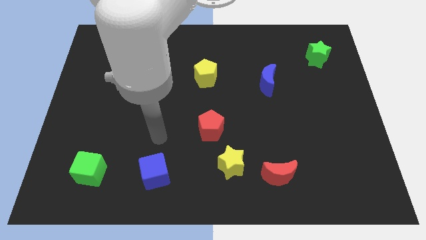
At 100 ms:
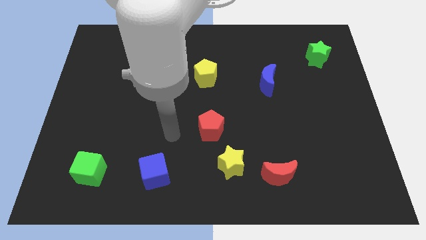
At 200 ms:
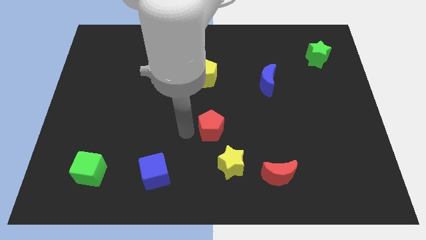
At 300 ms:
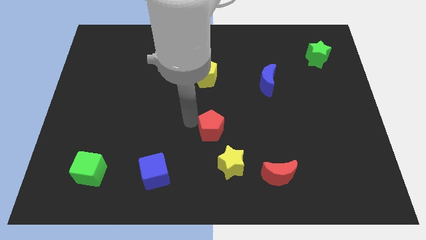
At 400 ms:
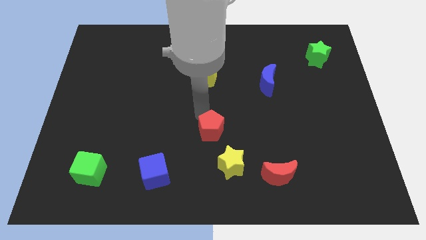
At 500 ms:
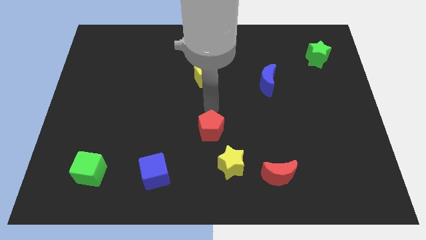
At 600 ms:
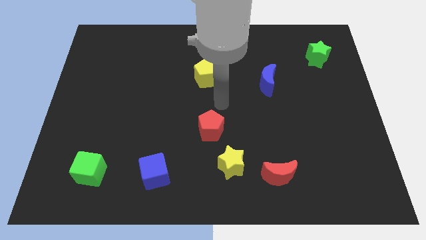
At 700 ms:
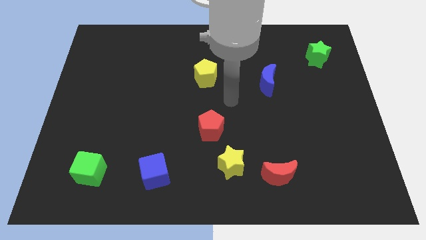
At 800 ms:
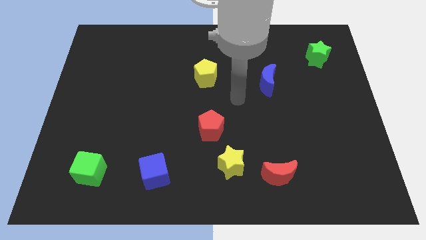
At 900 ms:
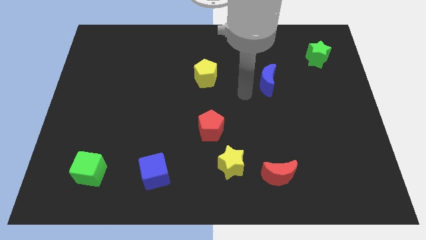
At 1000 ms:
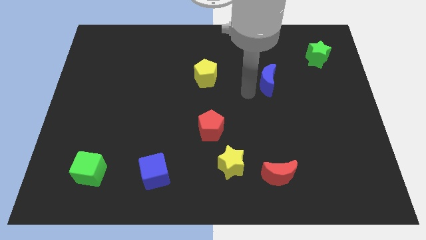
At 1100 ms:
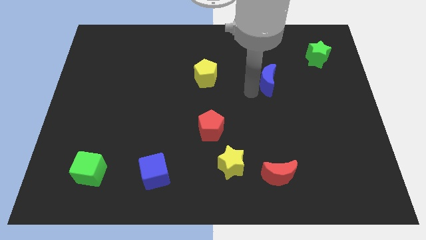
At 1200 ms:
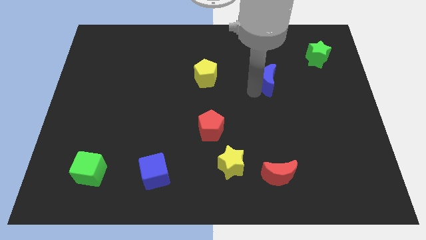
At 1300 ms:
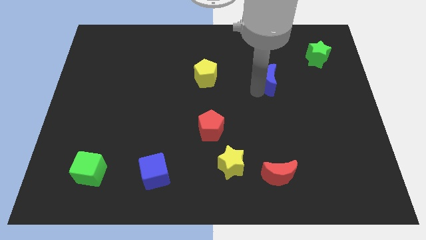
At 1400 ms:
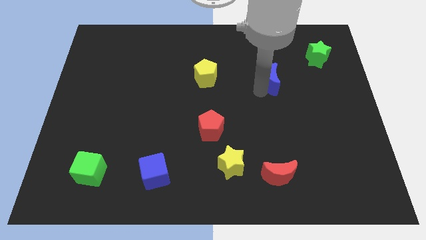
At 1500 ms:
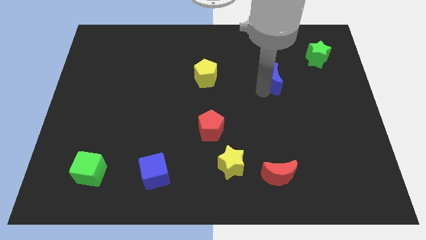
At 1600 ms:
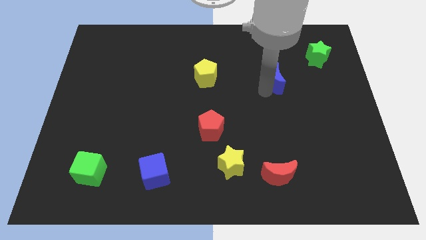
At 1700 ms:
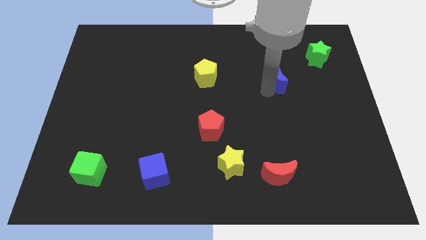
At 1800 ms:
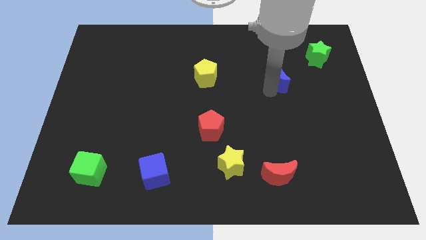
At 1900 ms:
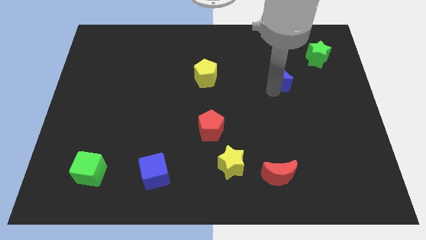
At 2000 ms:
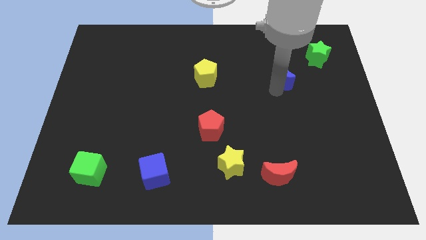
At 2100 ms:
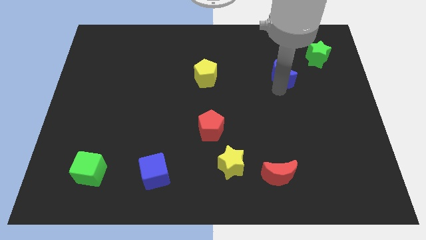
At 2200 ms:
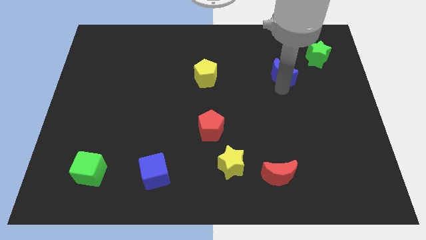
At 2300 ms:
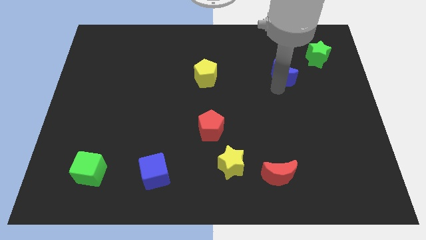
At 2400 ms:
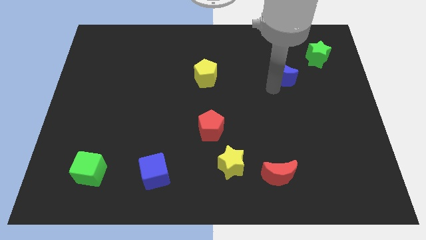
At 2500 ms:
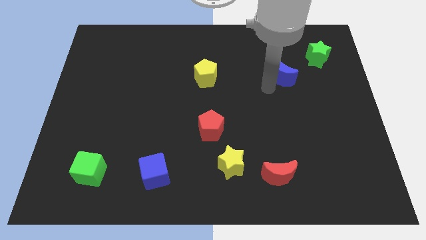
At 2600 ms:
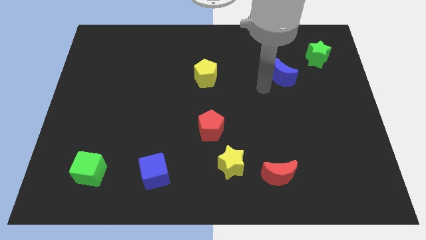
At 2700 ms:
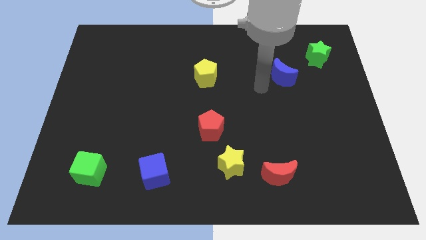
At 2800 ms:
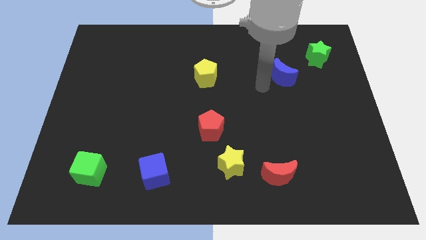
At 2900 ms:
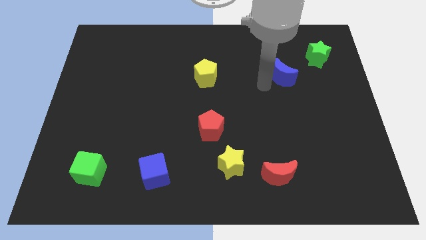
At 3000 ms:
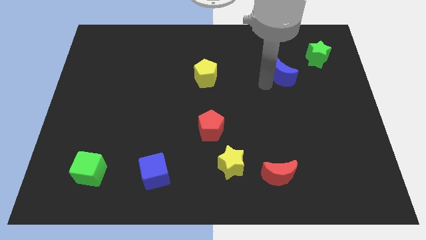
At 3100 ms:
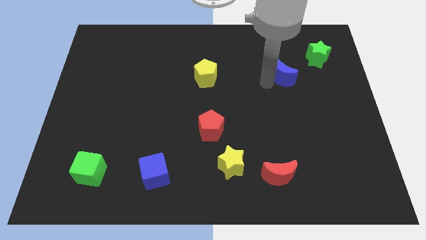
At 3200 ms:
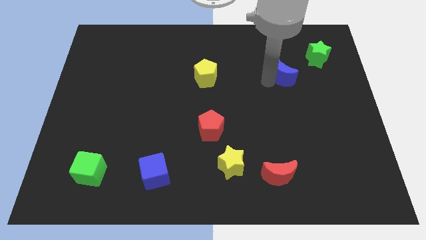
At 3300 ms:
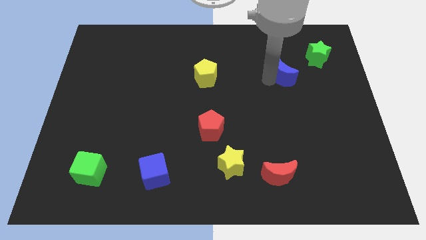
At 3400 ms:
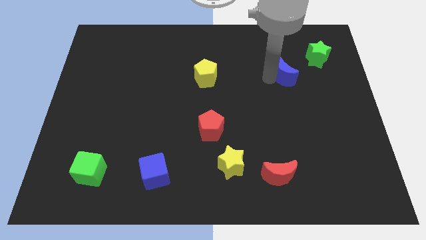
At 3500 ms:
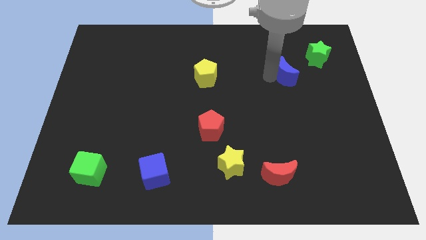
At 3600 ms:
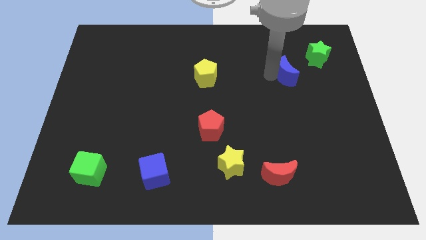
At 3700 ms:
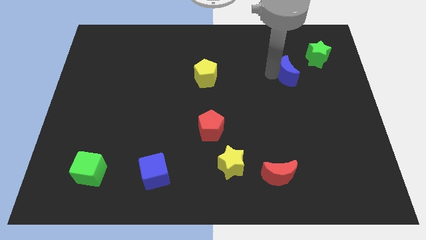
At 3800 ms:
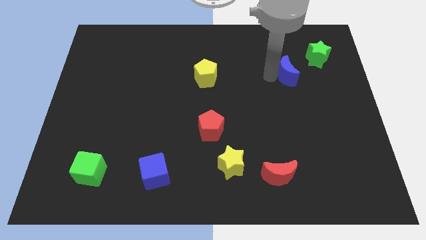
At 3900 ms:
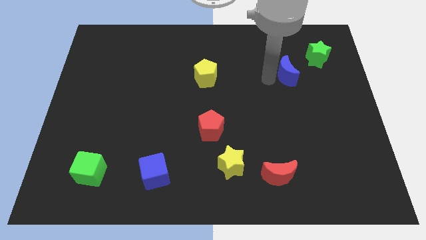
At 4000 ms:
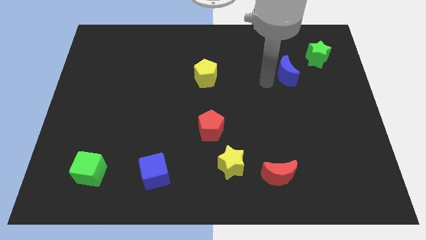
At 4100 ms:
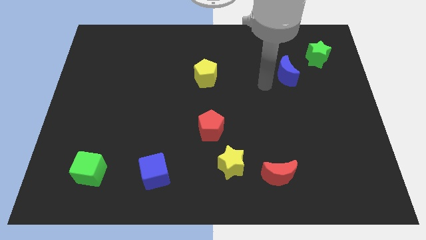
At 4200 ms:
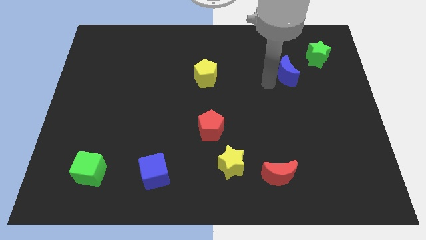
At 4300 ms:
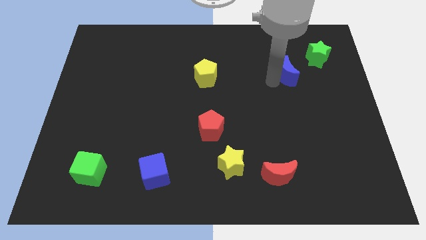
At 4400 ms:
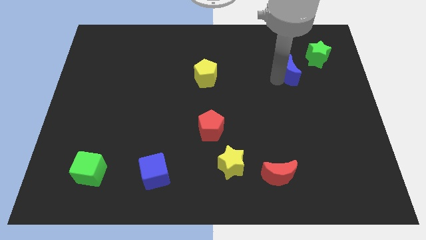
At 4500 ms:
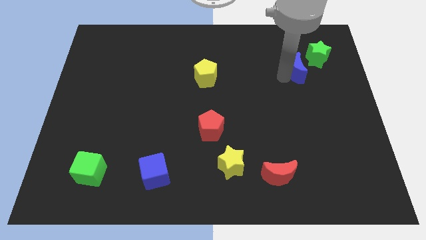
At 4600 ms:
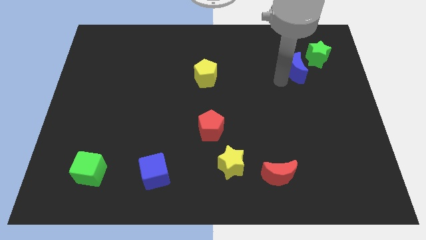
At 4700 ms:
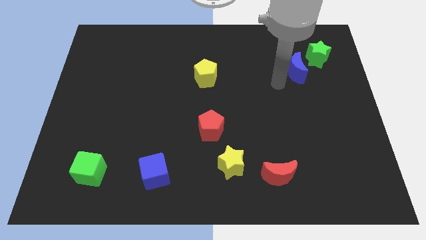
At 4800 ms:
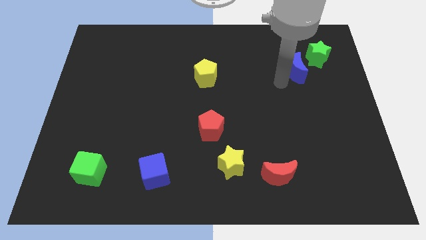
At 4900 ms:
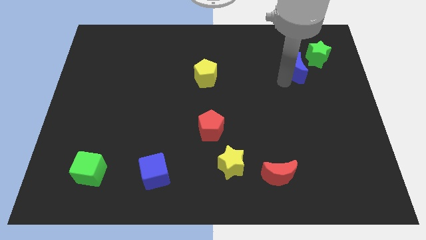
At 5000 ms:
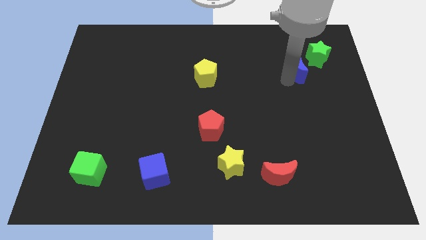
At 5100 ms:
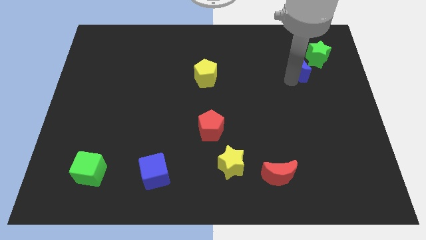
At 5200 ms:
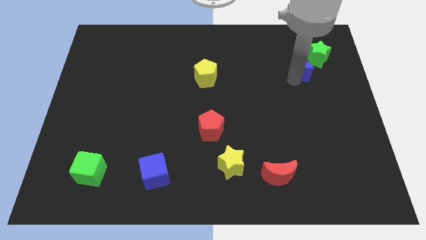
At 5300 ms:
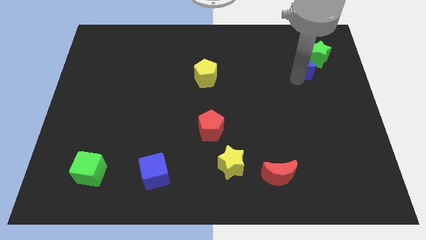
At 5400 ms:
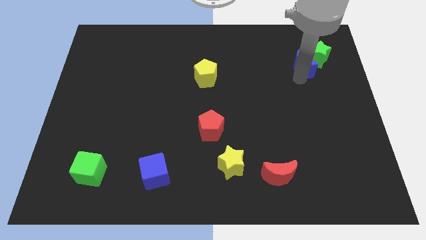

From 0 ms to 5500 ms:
push the blue moon towards the green star

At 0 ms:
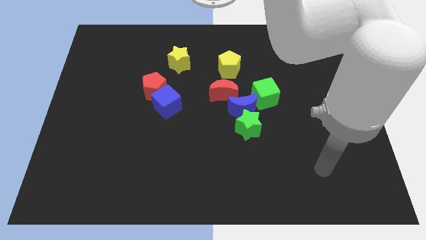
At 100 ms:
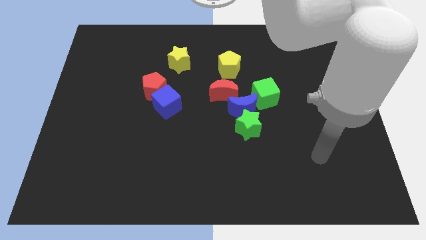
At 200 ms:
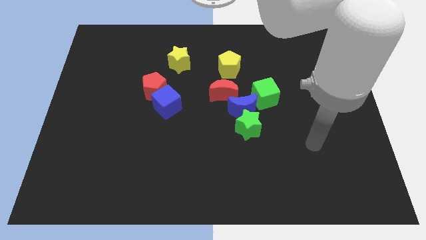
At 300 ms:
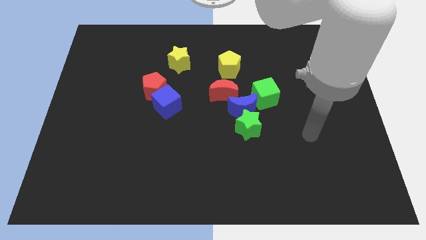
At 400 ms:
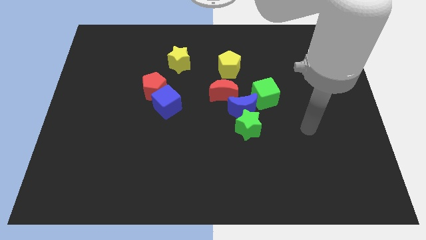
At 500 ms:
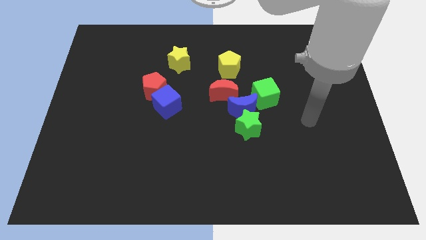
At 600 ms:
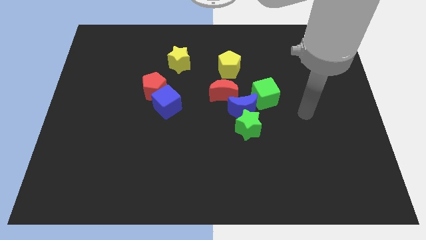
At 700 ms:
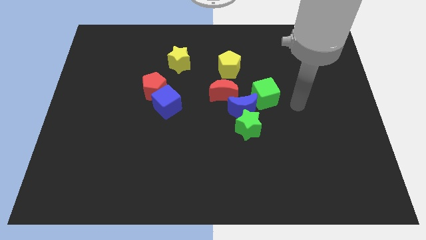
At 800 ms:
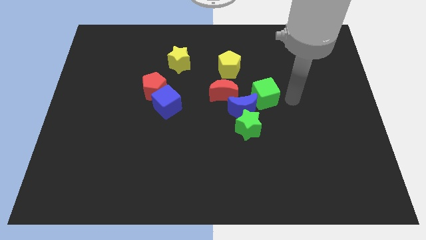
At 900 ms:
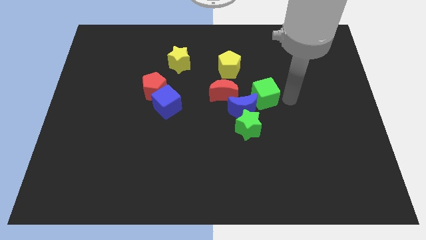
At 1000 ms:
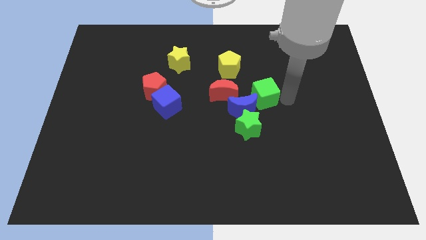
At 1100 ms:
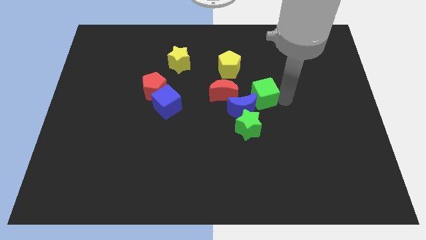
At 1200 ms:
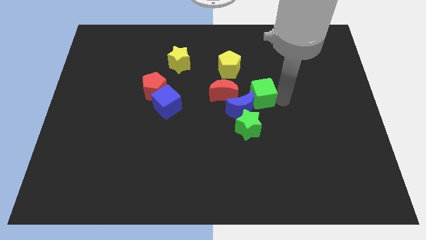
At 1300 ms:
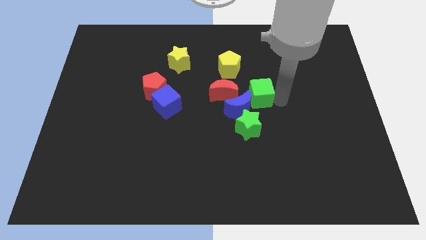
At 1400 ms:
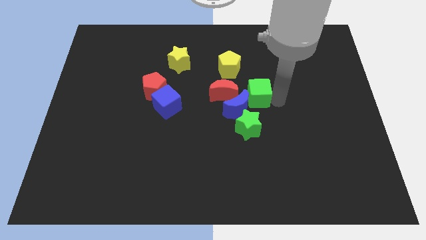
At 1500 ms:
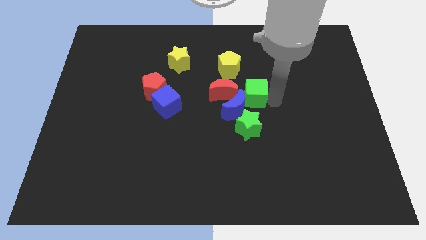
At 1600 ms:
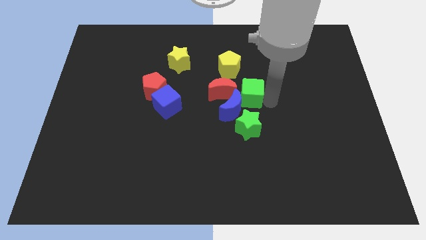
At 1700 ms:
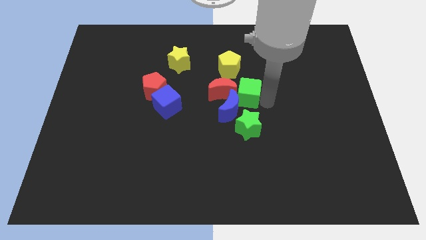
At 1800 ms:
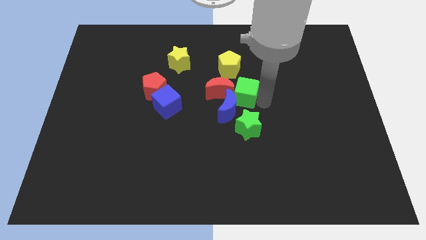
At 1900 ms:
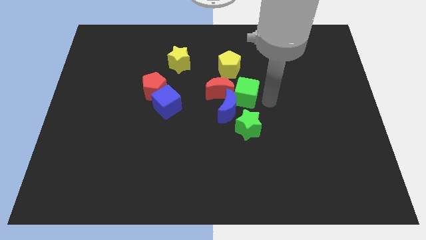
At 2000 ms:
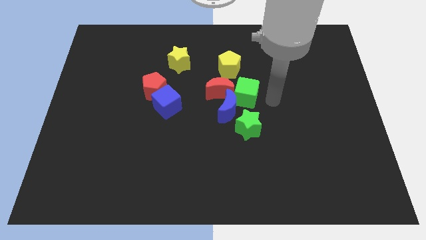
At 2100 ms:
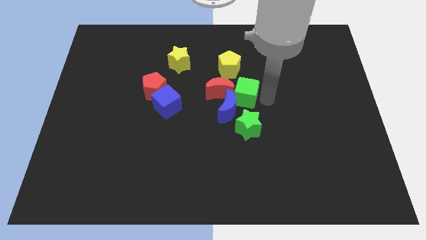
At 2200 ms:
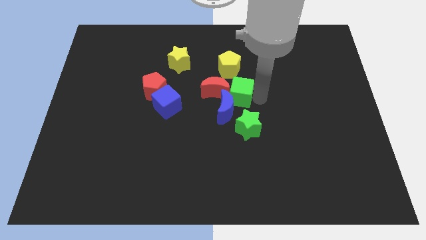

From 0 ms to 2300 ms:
slide the green cube to the red moon
